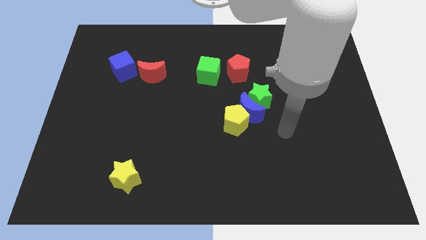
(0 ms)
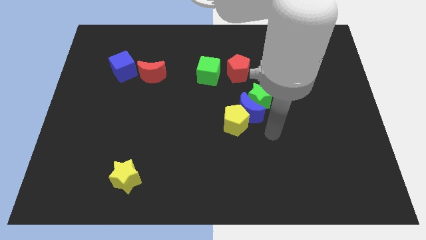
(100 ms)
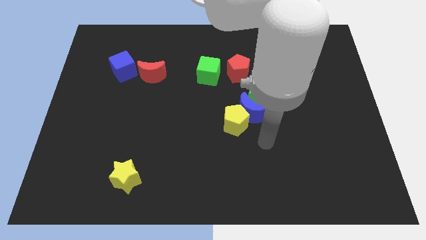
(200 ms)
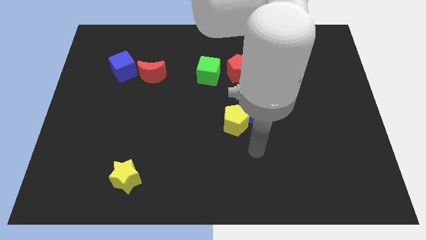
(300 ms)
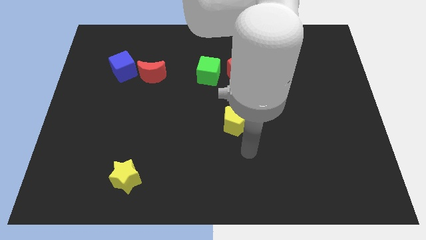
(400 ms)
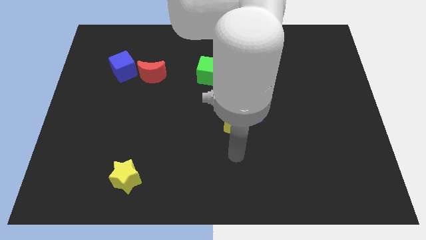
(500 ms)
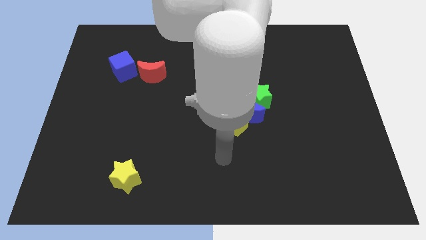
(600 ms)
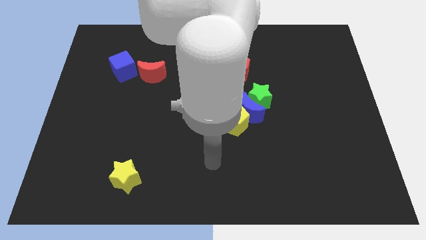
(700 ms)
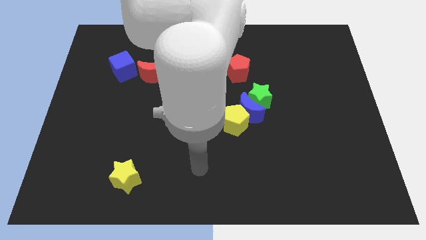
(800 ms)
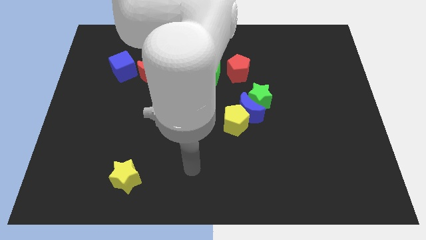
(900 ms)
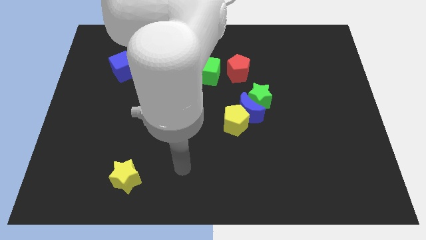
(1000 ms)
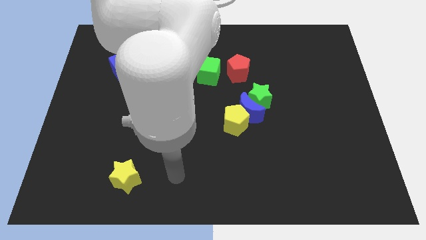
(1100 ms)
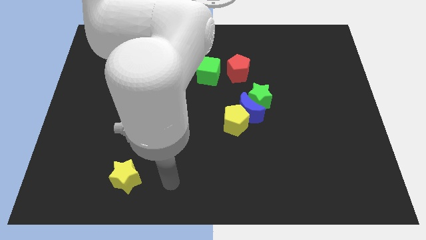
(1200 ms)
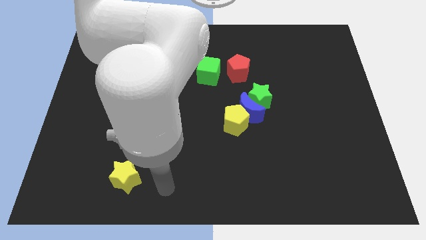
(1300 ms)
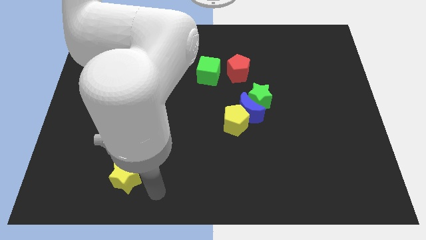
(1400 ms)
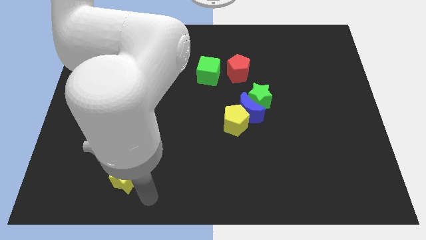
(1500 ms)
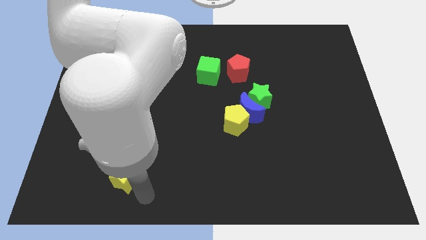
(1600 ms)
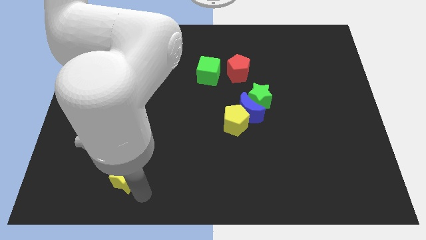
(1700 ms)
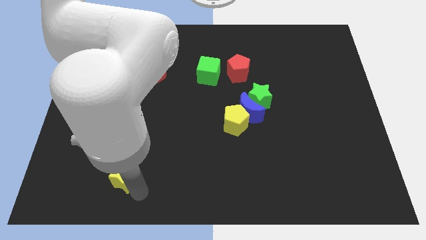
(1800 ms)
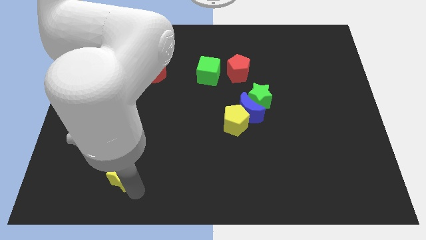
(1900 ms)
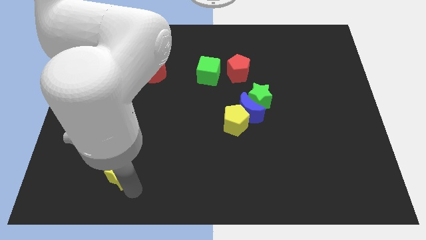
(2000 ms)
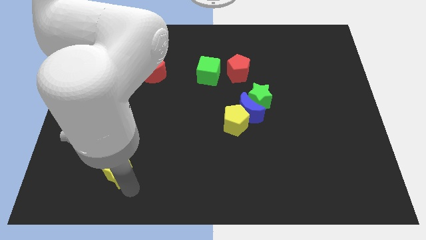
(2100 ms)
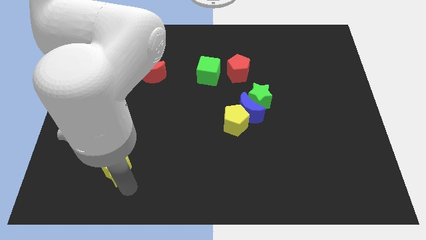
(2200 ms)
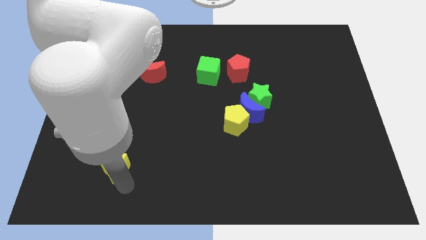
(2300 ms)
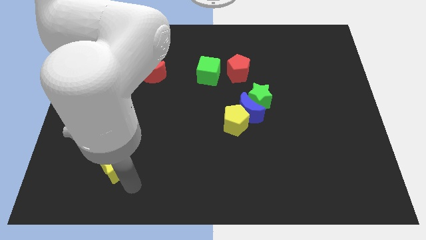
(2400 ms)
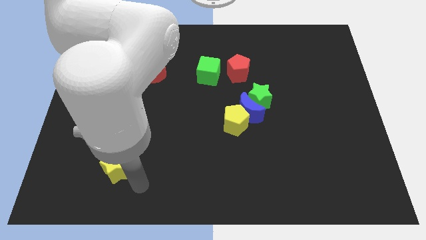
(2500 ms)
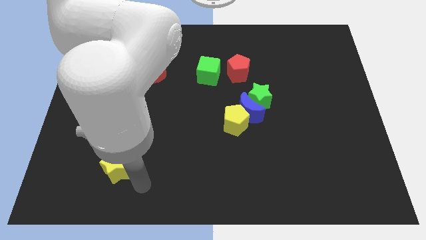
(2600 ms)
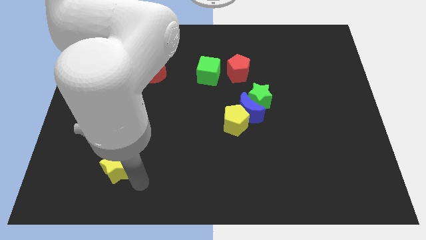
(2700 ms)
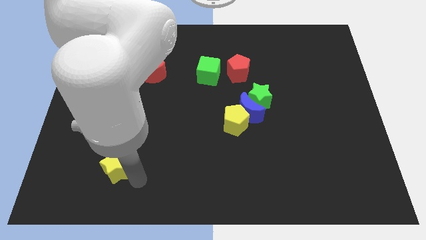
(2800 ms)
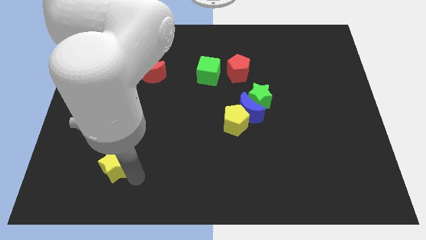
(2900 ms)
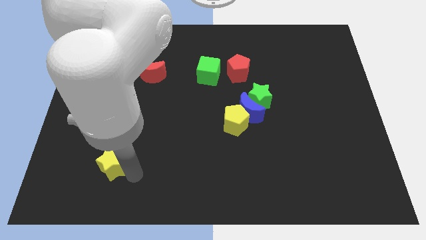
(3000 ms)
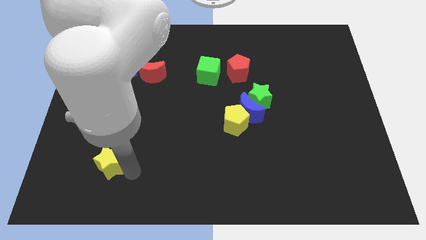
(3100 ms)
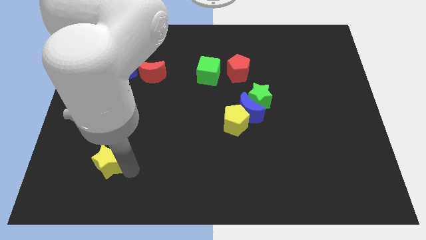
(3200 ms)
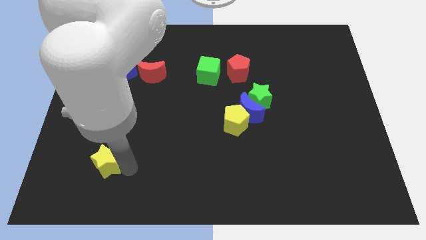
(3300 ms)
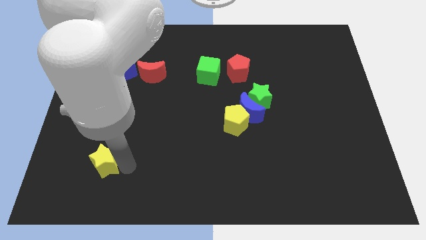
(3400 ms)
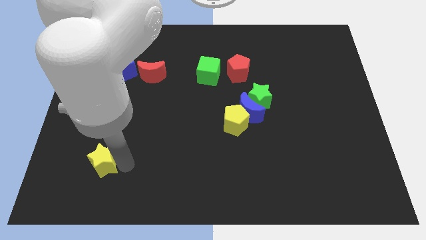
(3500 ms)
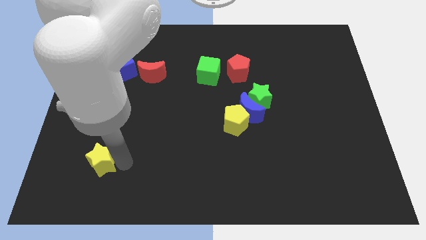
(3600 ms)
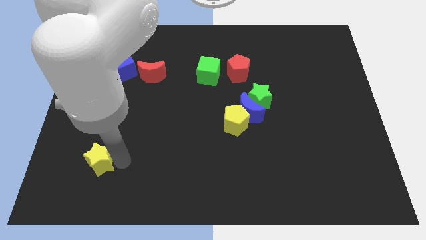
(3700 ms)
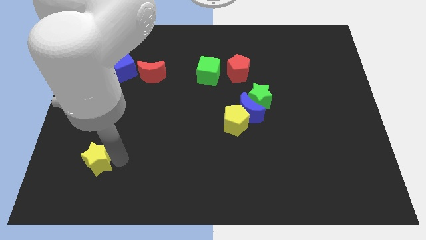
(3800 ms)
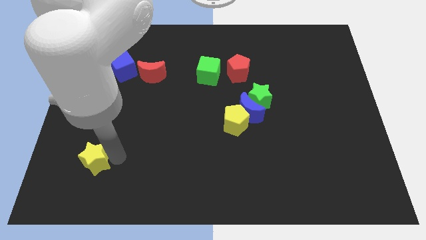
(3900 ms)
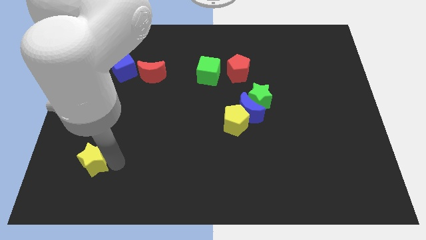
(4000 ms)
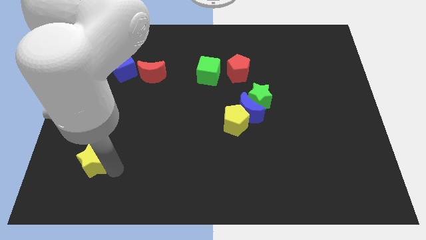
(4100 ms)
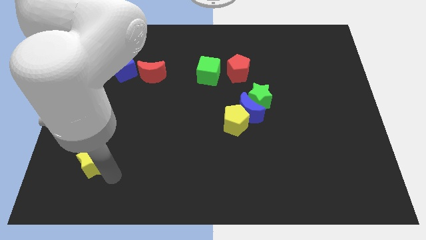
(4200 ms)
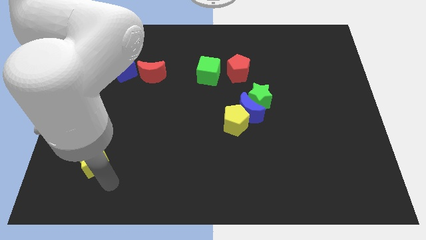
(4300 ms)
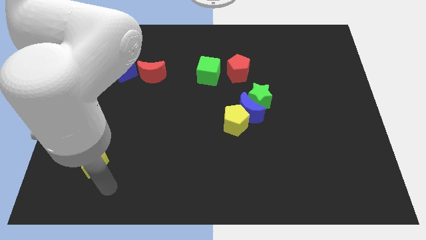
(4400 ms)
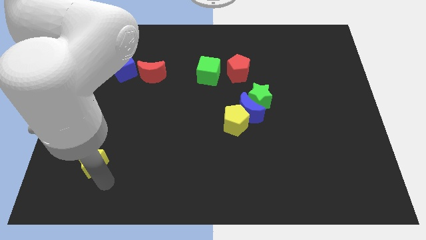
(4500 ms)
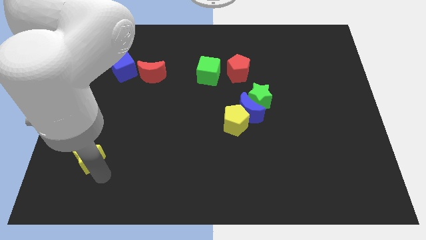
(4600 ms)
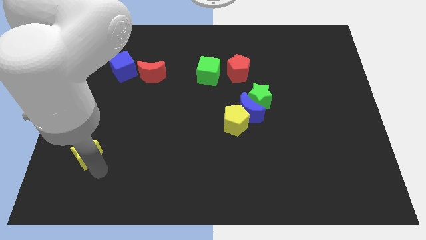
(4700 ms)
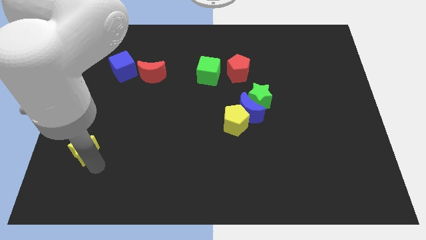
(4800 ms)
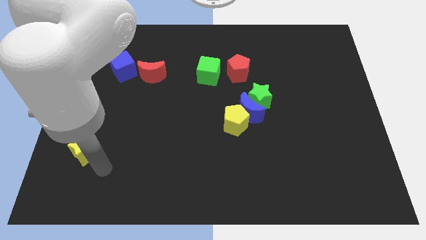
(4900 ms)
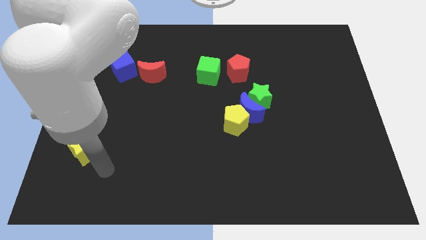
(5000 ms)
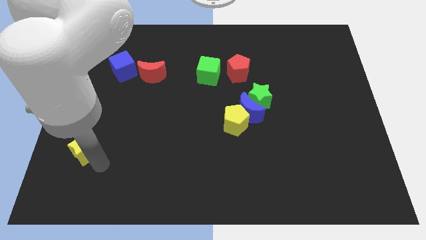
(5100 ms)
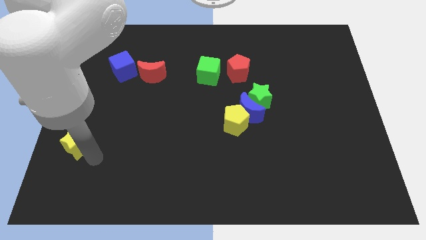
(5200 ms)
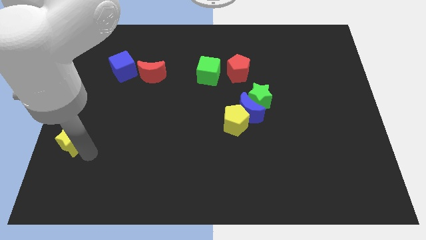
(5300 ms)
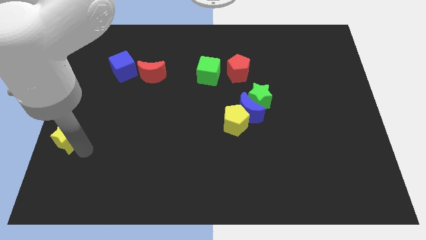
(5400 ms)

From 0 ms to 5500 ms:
push the yellow star to the center left

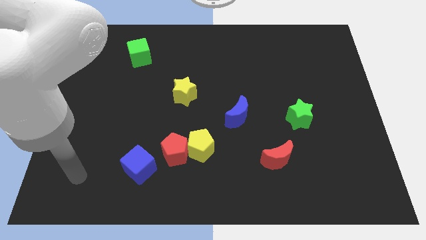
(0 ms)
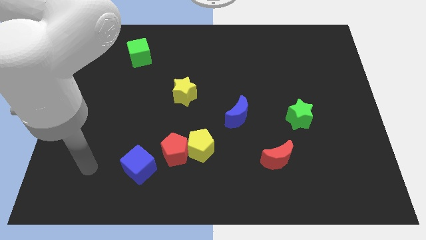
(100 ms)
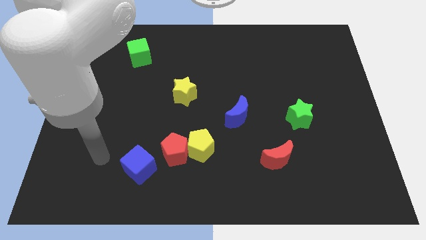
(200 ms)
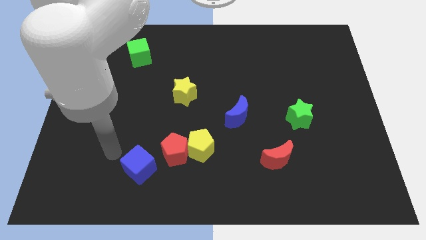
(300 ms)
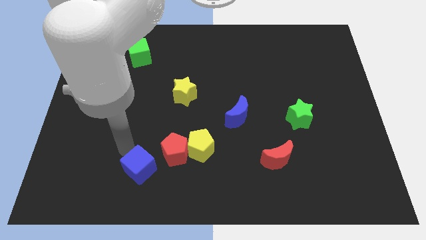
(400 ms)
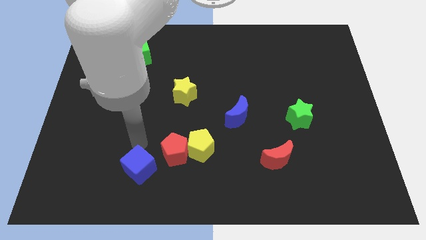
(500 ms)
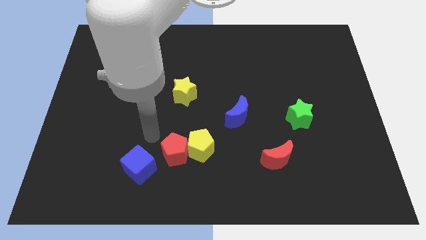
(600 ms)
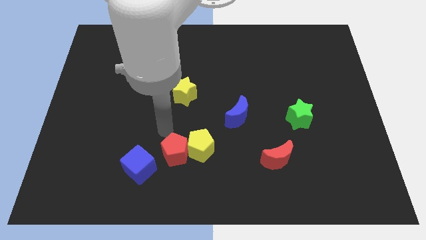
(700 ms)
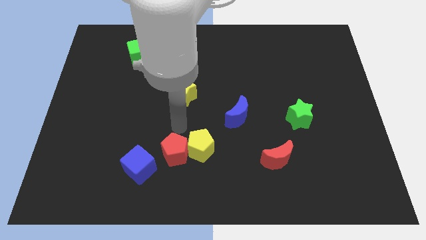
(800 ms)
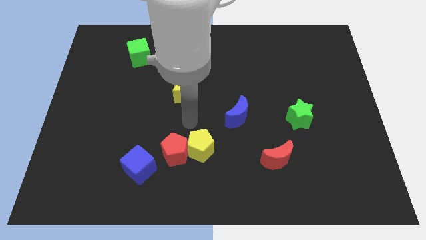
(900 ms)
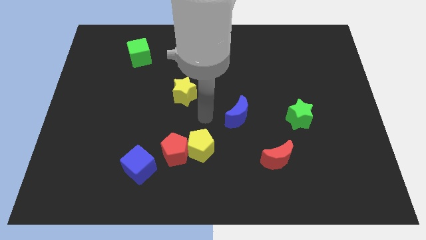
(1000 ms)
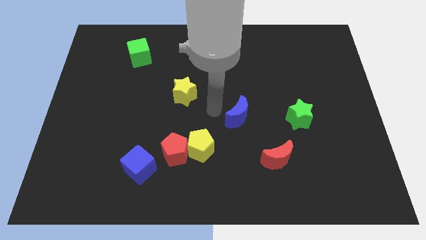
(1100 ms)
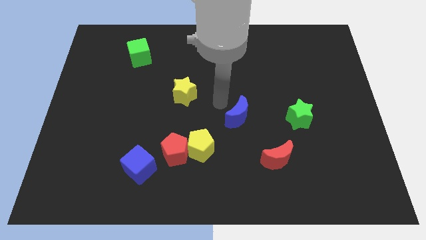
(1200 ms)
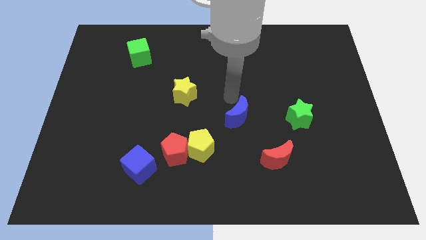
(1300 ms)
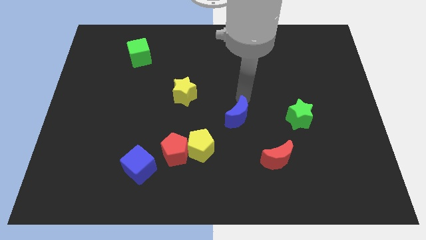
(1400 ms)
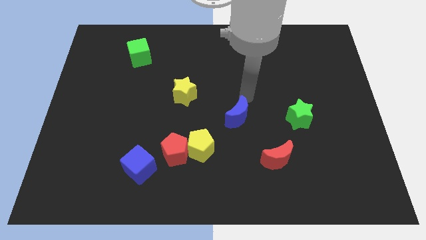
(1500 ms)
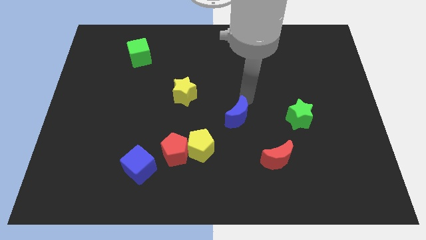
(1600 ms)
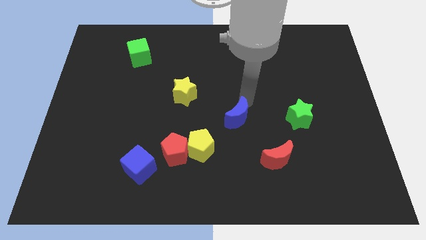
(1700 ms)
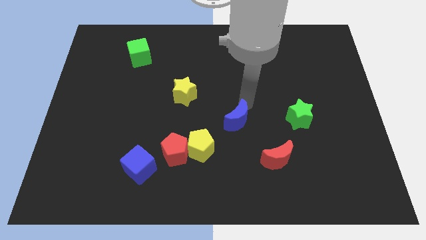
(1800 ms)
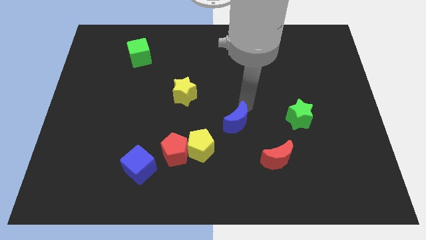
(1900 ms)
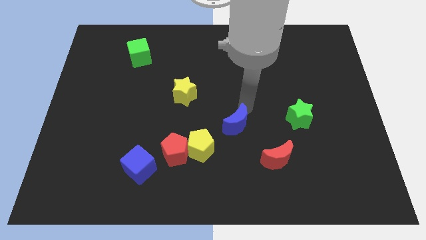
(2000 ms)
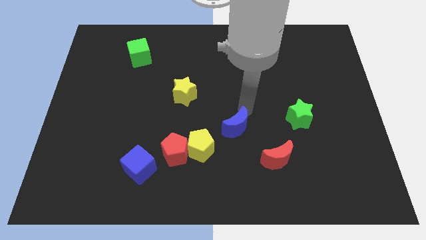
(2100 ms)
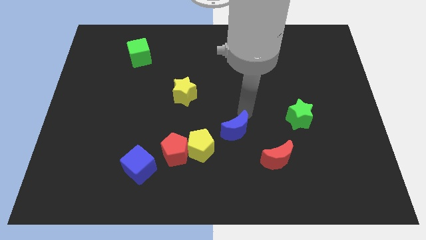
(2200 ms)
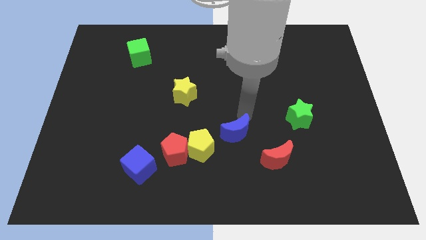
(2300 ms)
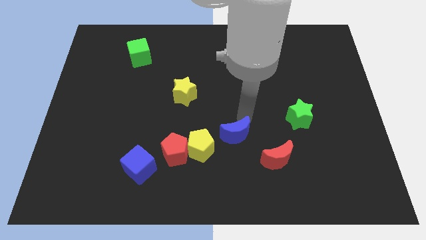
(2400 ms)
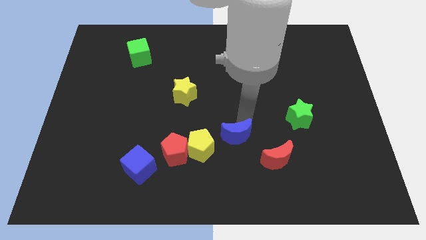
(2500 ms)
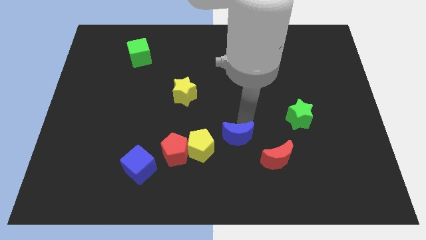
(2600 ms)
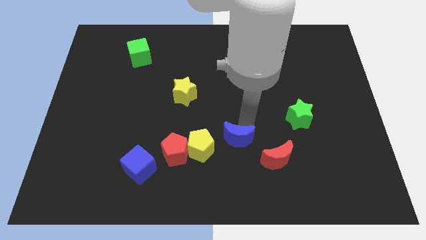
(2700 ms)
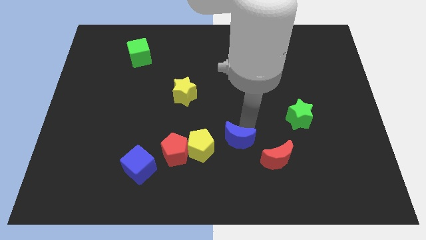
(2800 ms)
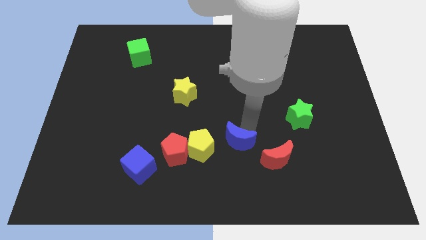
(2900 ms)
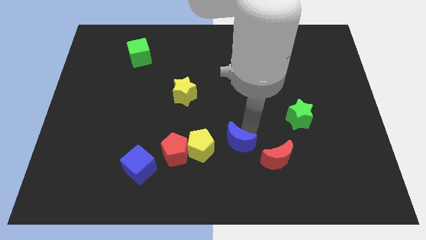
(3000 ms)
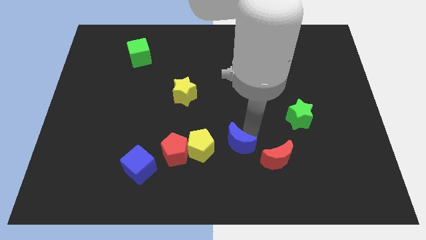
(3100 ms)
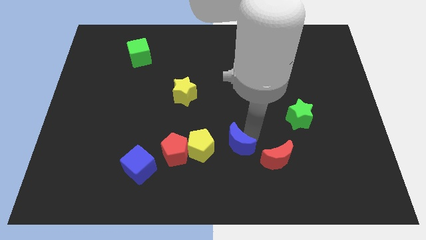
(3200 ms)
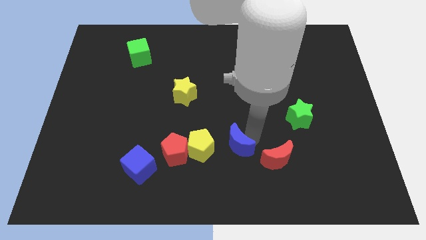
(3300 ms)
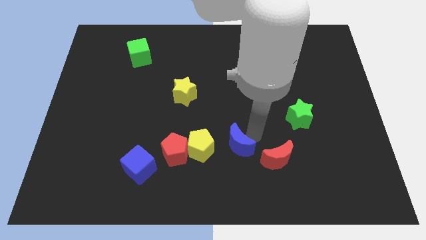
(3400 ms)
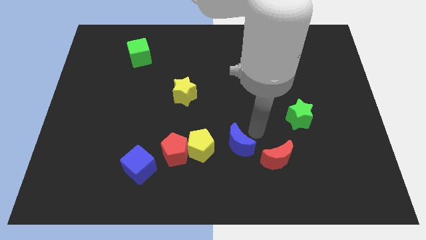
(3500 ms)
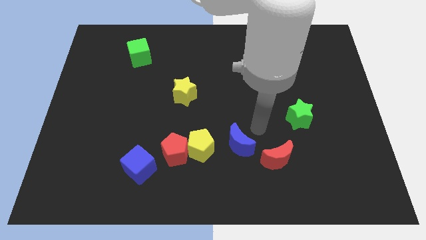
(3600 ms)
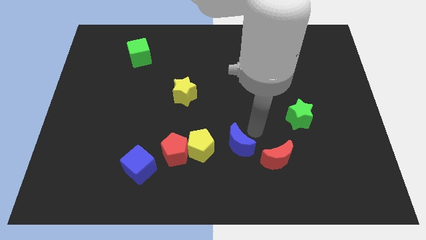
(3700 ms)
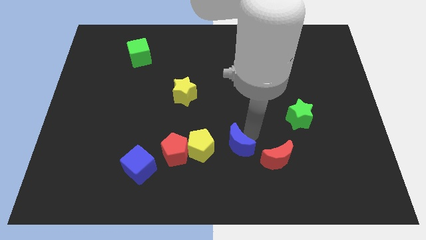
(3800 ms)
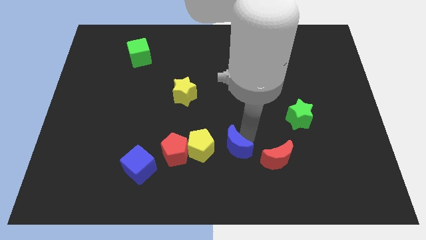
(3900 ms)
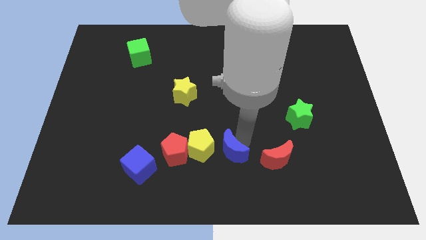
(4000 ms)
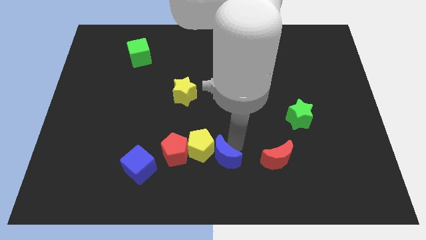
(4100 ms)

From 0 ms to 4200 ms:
push the blue moon to the bottom side
